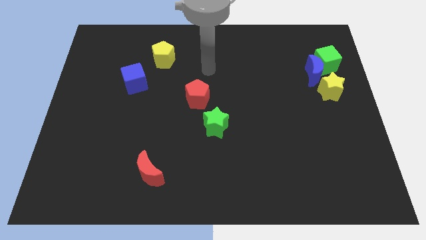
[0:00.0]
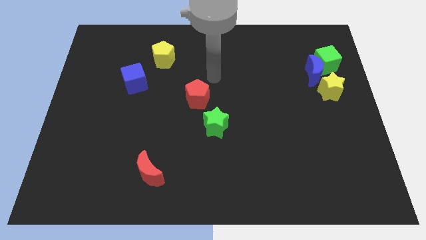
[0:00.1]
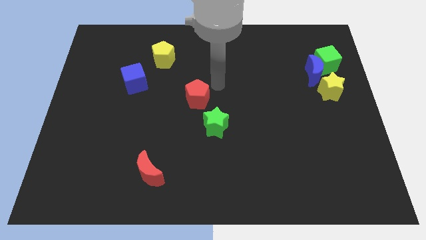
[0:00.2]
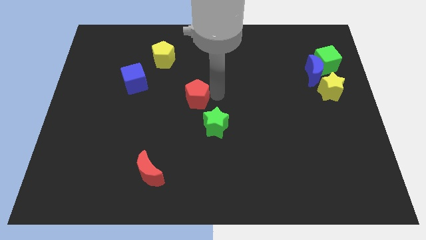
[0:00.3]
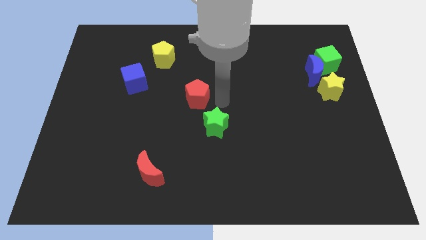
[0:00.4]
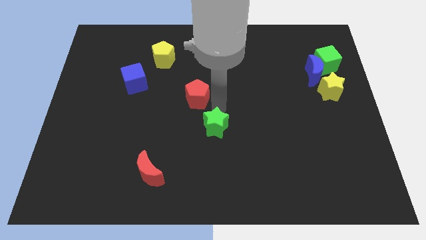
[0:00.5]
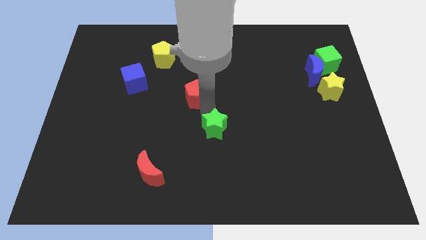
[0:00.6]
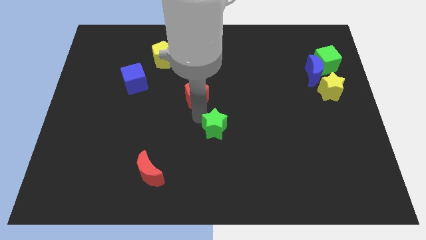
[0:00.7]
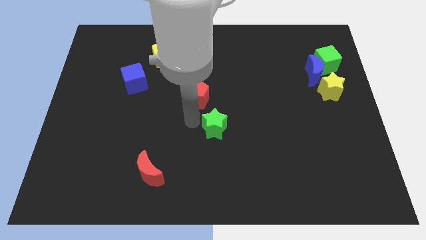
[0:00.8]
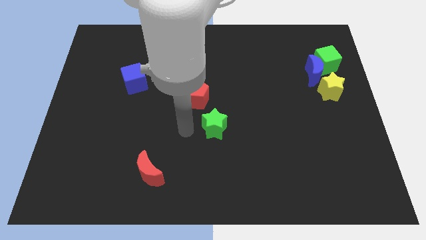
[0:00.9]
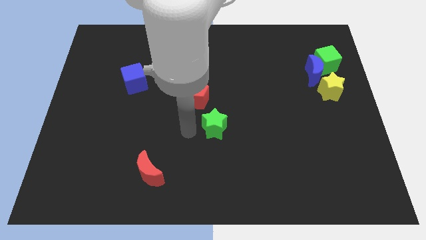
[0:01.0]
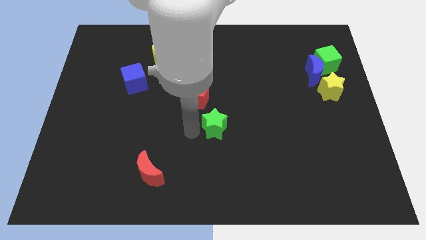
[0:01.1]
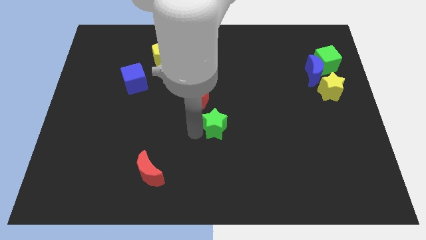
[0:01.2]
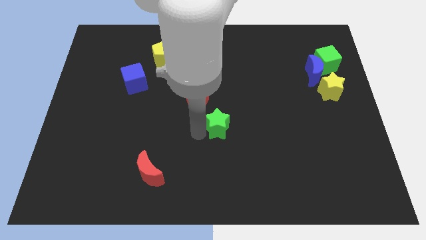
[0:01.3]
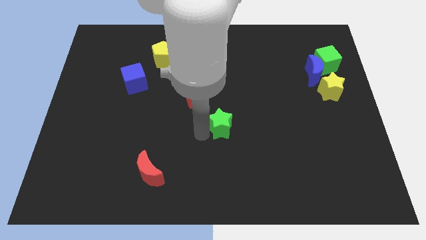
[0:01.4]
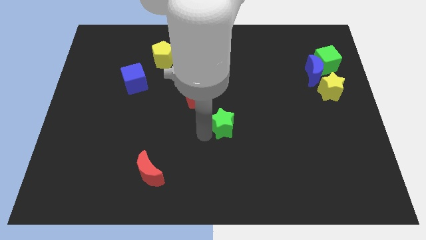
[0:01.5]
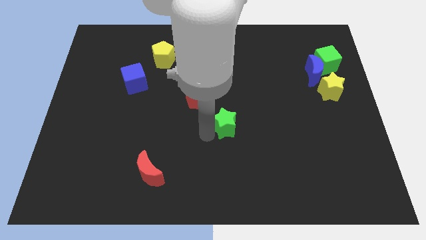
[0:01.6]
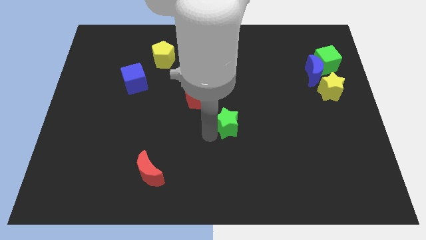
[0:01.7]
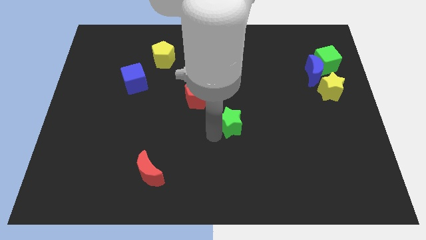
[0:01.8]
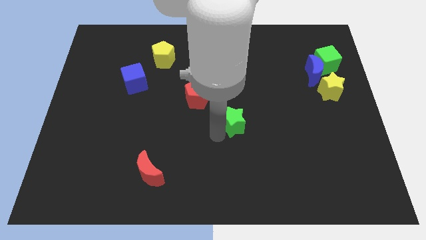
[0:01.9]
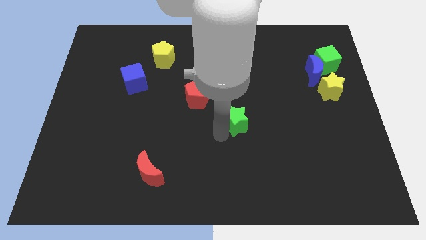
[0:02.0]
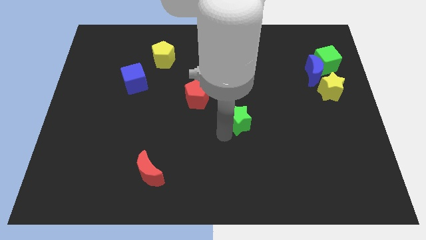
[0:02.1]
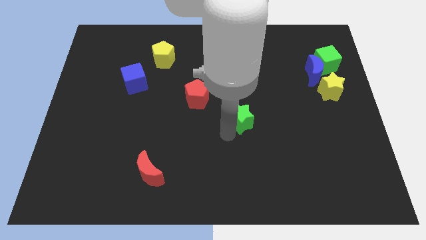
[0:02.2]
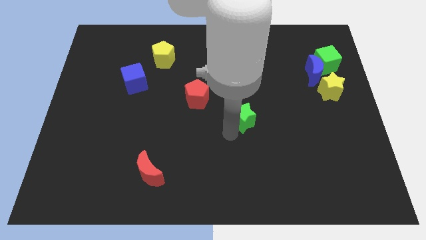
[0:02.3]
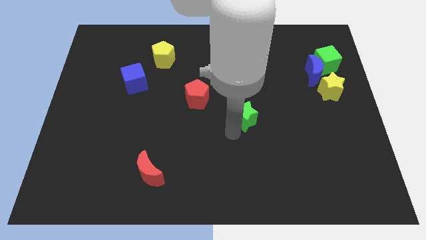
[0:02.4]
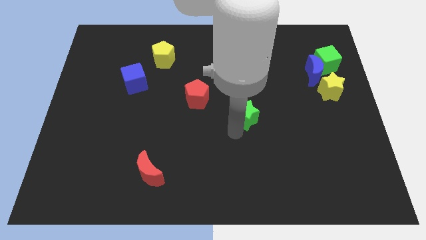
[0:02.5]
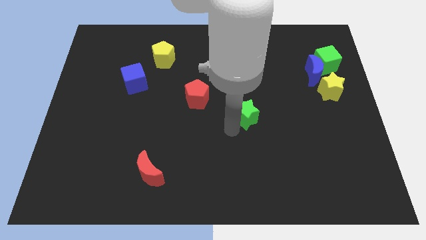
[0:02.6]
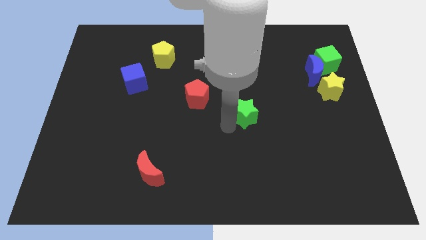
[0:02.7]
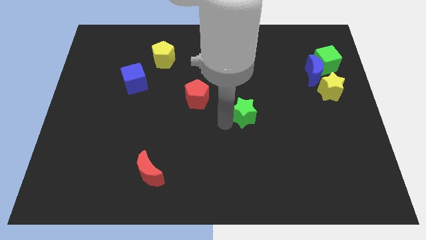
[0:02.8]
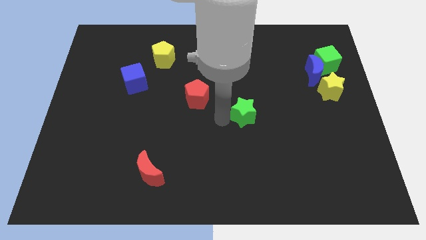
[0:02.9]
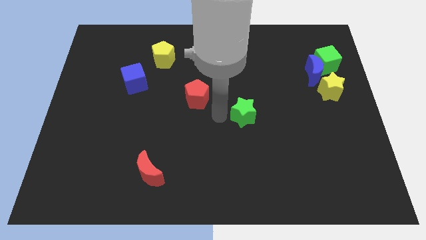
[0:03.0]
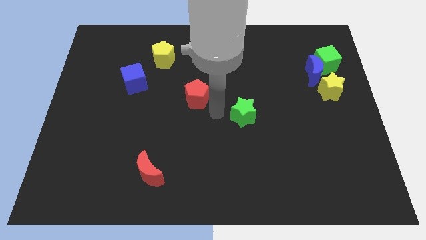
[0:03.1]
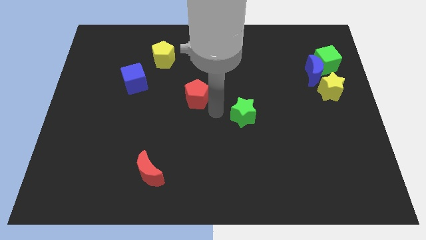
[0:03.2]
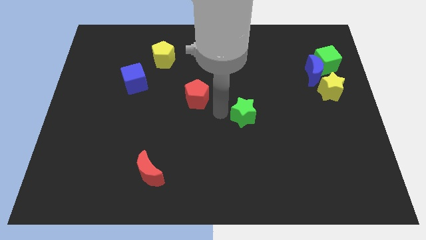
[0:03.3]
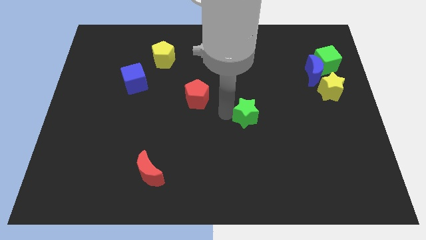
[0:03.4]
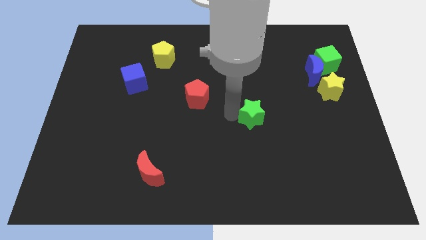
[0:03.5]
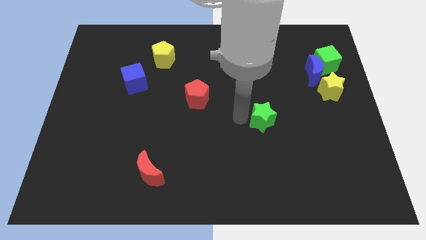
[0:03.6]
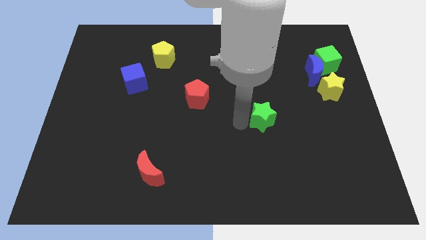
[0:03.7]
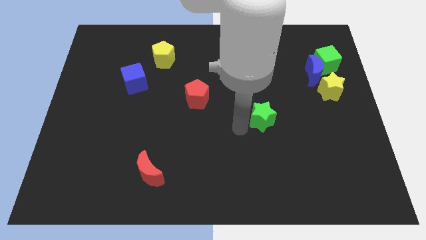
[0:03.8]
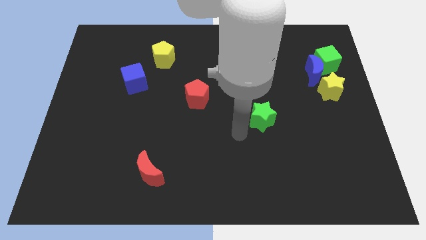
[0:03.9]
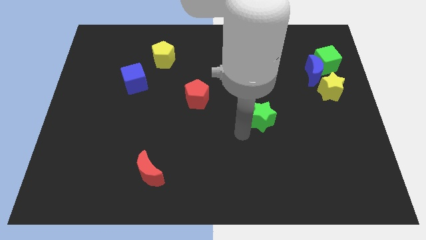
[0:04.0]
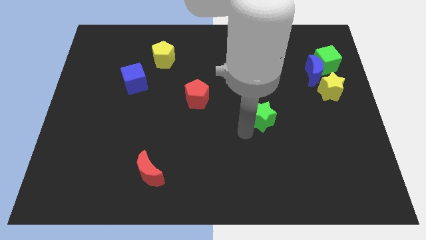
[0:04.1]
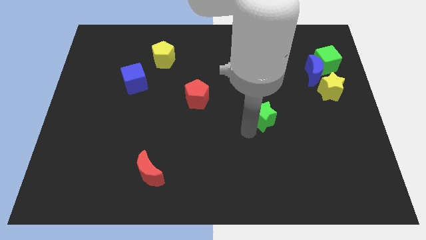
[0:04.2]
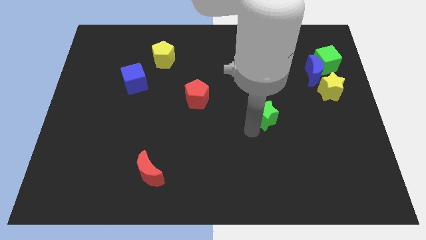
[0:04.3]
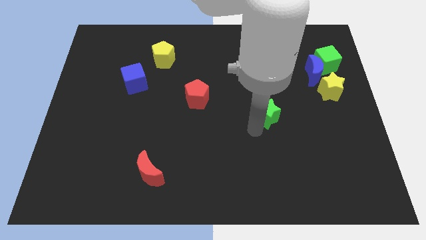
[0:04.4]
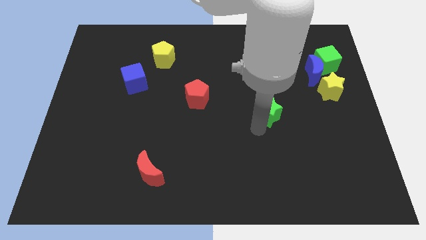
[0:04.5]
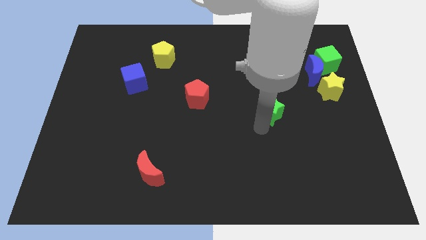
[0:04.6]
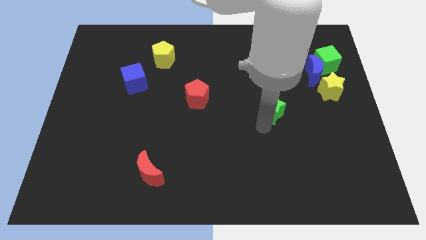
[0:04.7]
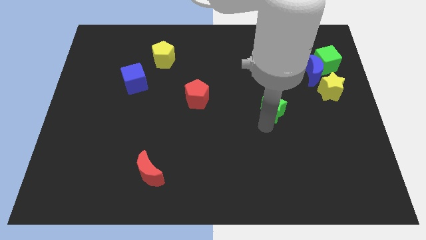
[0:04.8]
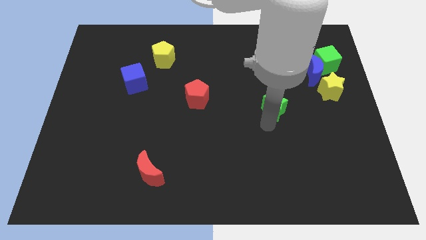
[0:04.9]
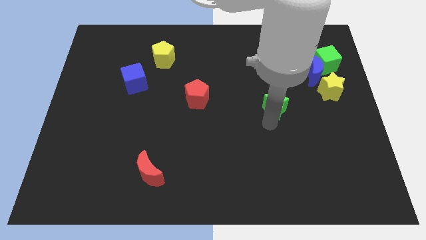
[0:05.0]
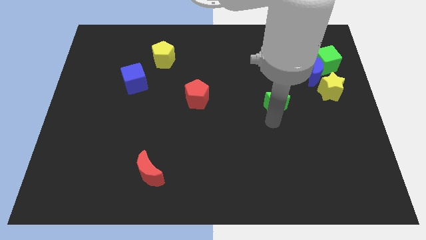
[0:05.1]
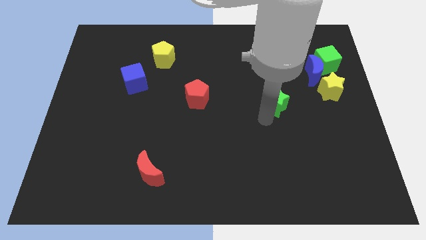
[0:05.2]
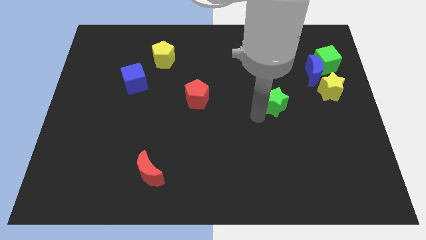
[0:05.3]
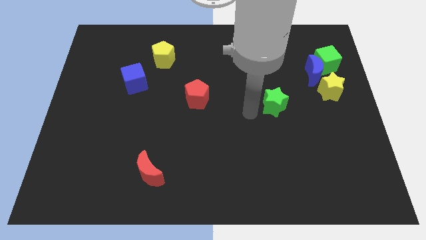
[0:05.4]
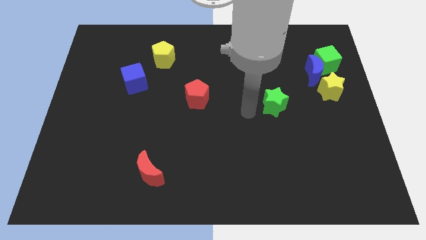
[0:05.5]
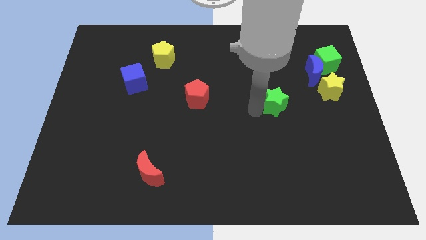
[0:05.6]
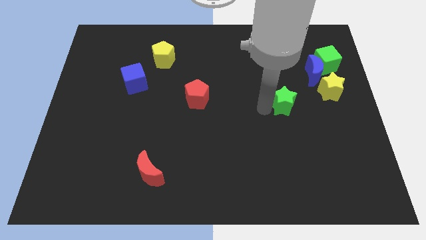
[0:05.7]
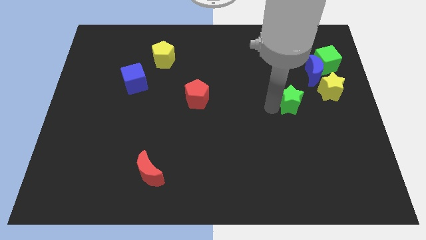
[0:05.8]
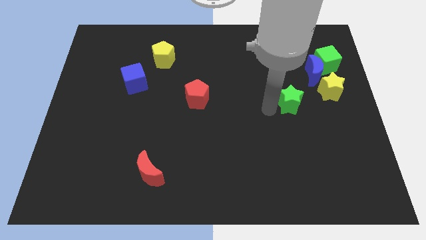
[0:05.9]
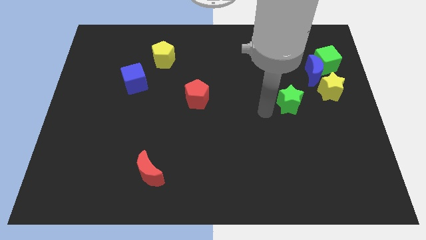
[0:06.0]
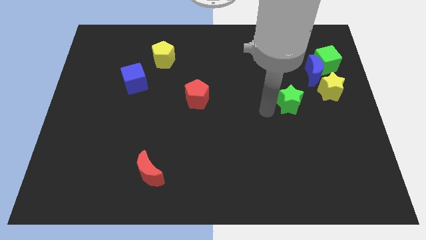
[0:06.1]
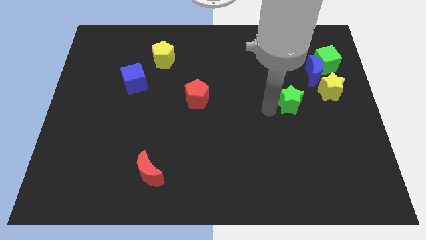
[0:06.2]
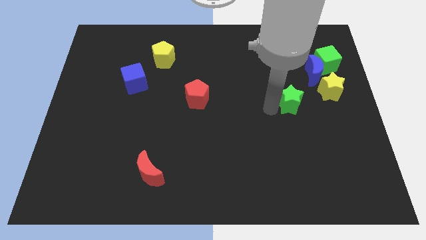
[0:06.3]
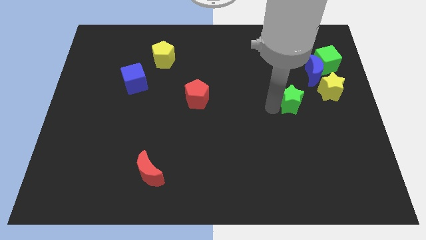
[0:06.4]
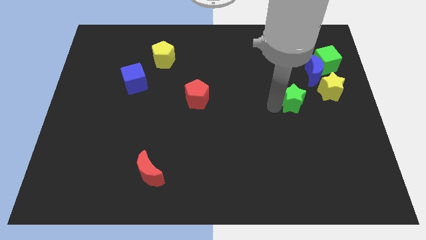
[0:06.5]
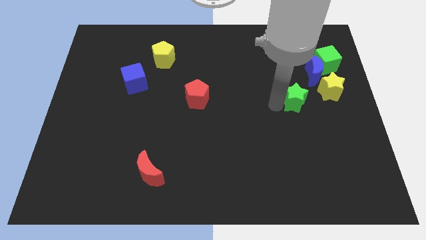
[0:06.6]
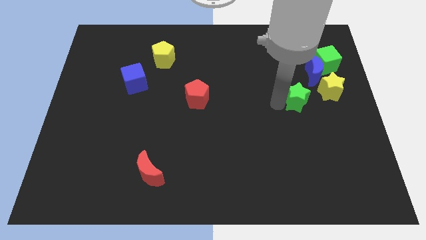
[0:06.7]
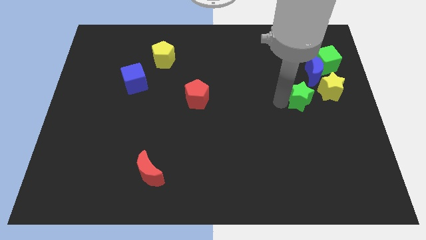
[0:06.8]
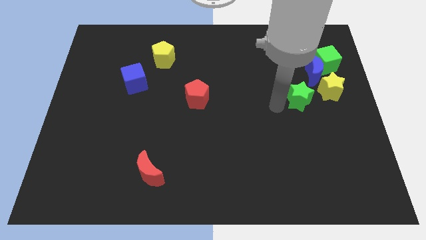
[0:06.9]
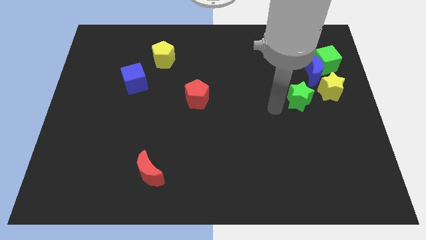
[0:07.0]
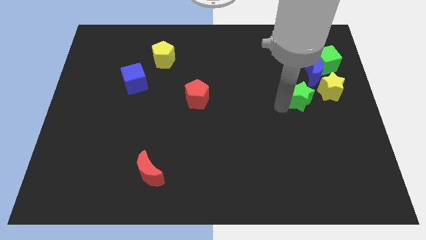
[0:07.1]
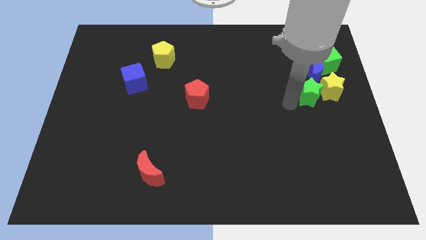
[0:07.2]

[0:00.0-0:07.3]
slide the green star to the yellow star
